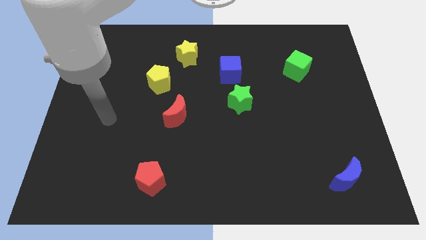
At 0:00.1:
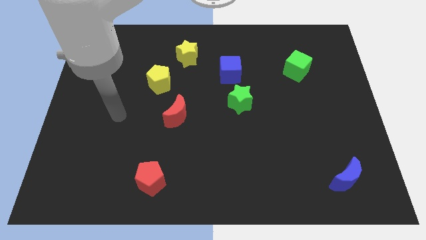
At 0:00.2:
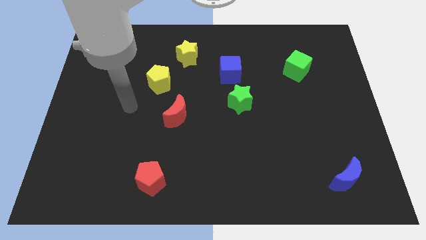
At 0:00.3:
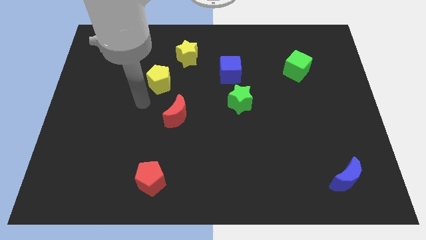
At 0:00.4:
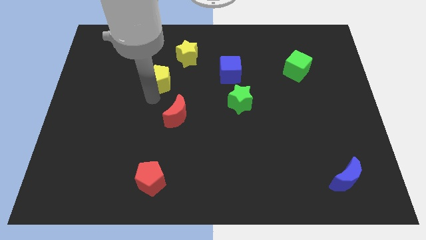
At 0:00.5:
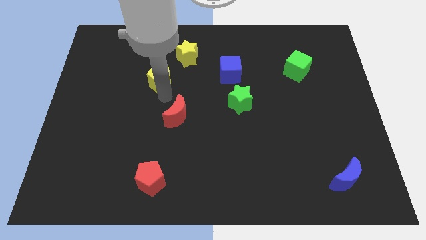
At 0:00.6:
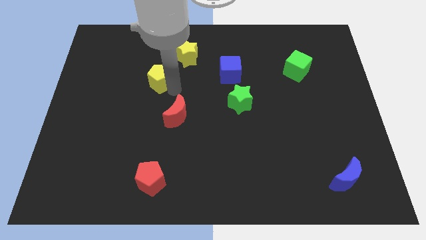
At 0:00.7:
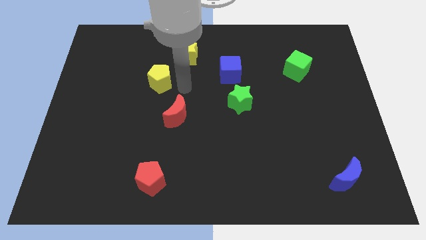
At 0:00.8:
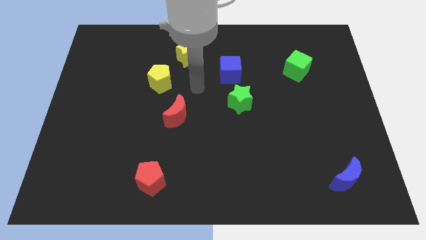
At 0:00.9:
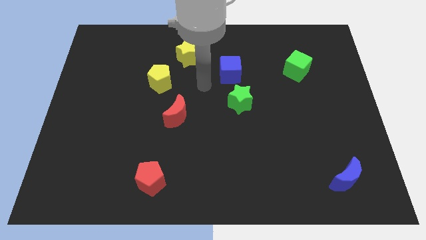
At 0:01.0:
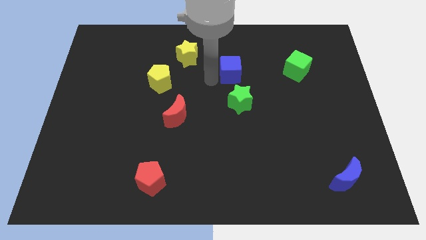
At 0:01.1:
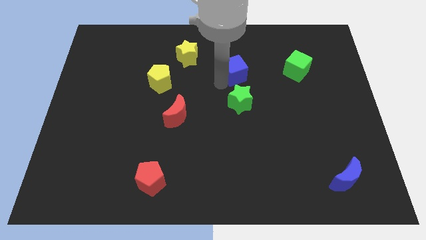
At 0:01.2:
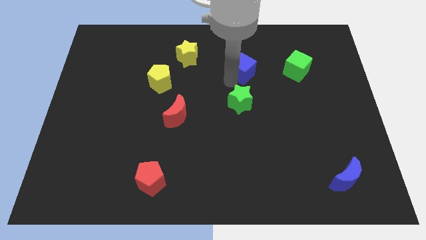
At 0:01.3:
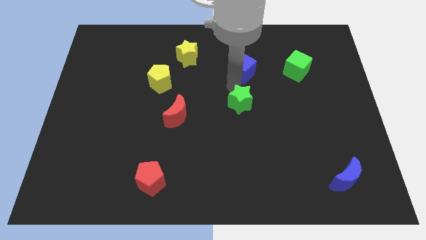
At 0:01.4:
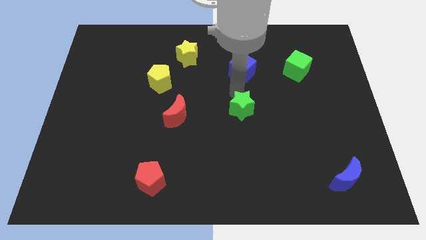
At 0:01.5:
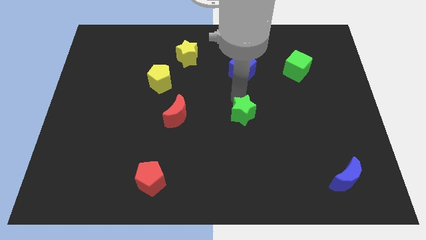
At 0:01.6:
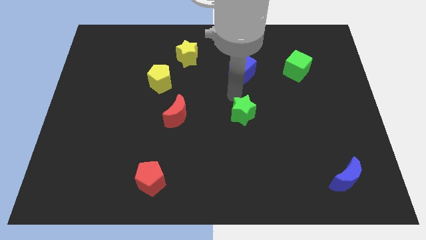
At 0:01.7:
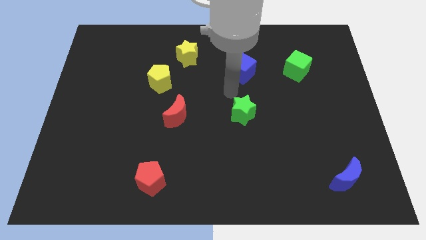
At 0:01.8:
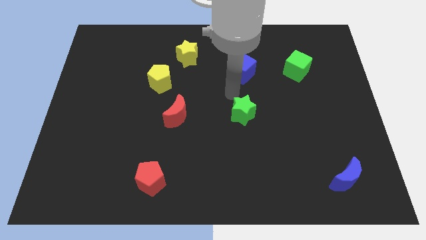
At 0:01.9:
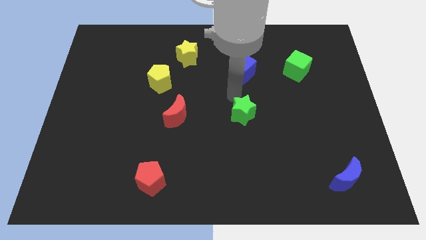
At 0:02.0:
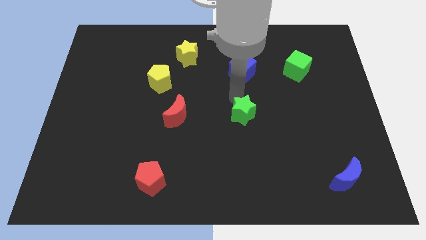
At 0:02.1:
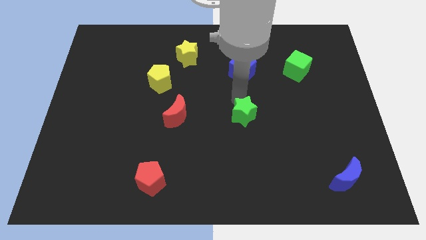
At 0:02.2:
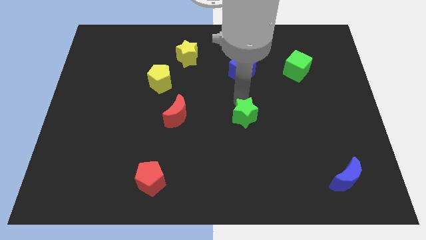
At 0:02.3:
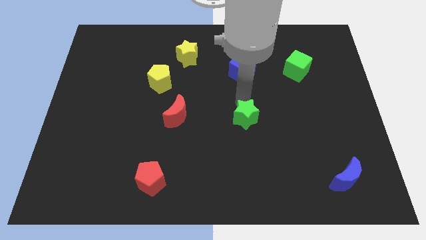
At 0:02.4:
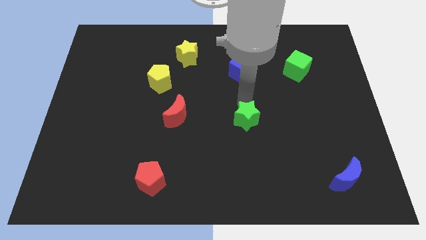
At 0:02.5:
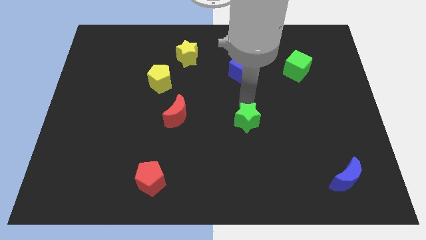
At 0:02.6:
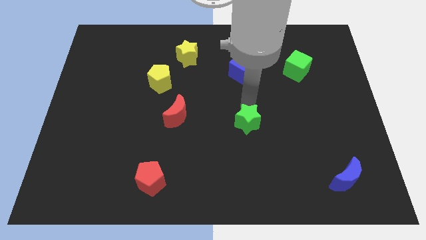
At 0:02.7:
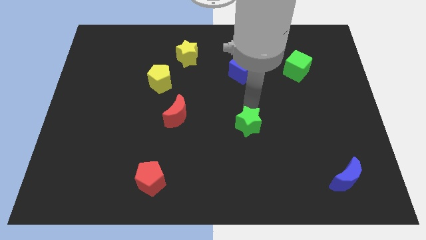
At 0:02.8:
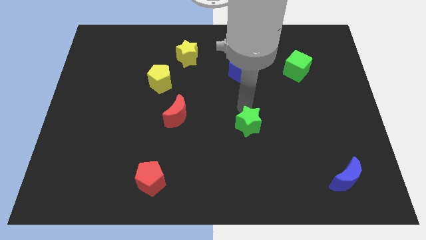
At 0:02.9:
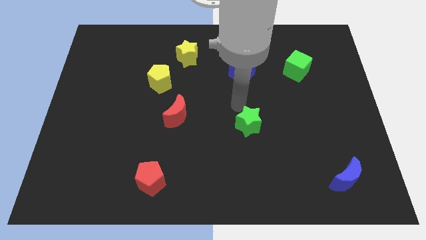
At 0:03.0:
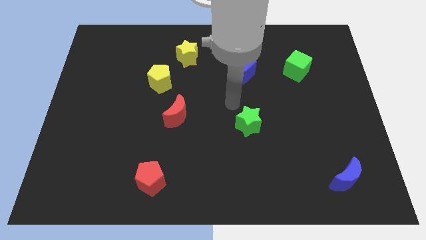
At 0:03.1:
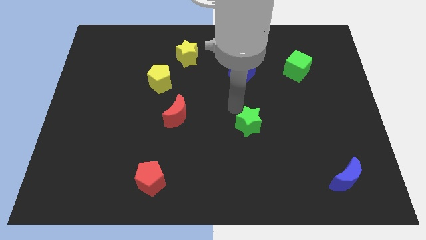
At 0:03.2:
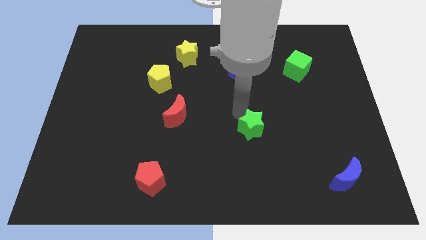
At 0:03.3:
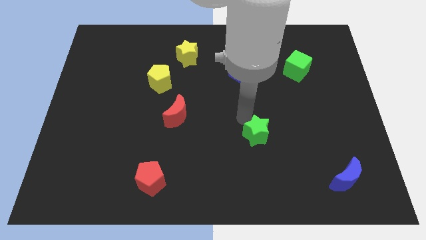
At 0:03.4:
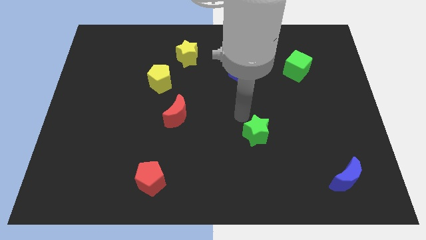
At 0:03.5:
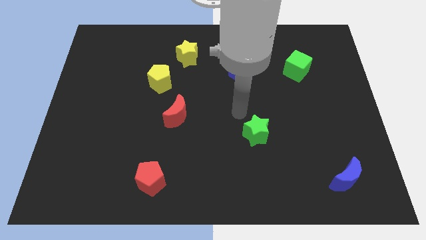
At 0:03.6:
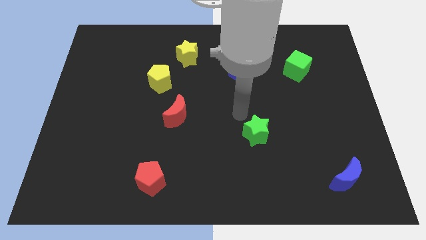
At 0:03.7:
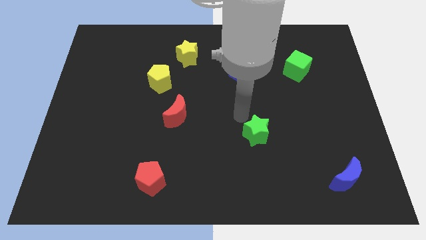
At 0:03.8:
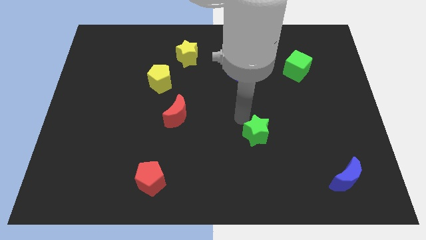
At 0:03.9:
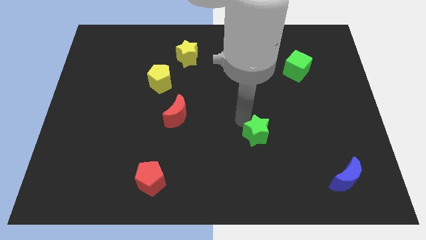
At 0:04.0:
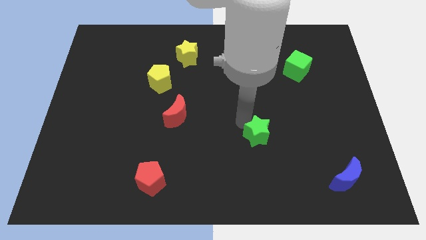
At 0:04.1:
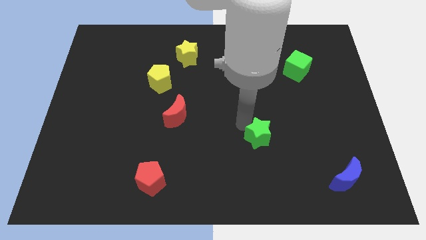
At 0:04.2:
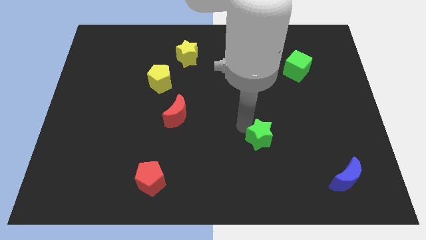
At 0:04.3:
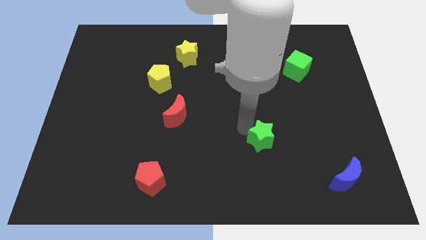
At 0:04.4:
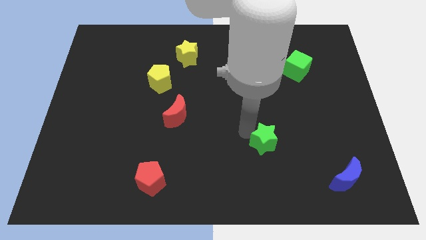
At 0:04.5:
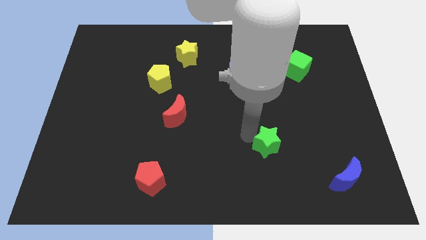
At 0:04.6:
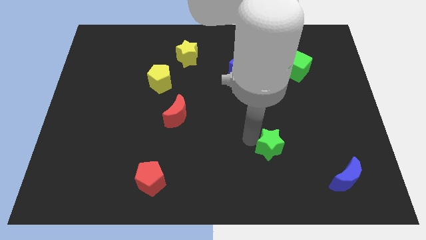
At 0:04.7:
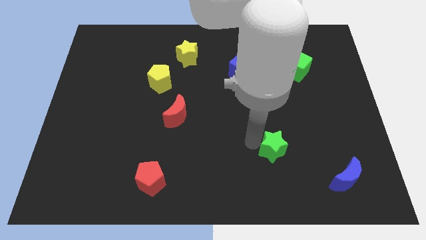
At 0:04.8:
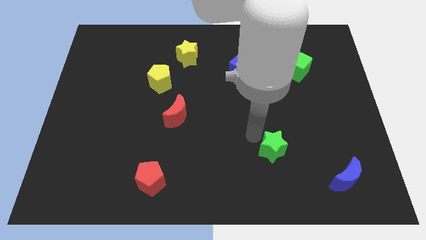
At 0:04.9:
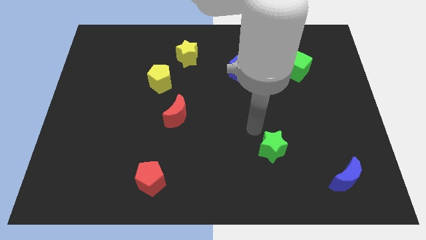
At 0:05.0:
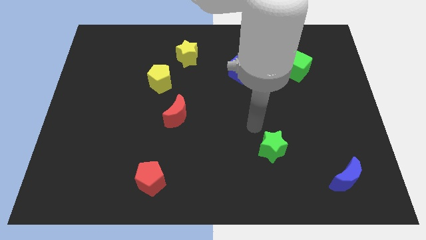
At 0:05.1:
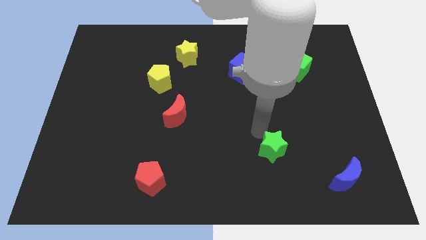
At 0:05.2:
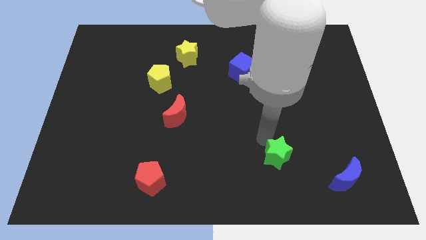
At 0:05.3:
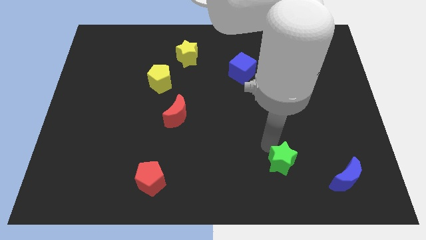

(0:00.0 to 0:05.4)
push the green star left of the blue moon

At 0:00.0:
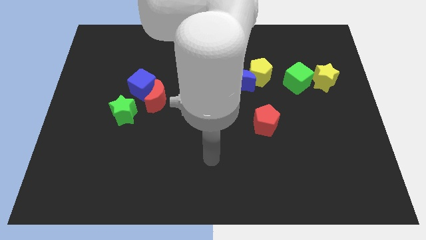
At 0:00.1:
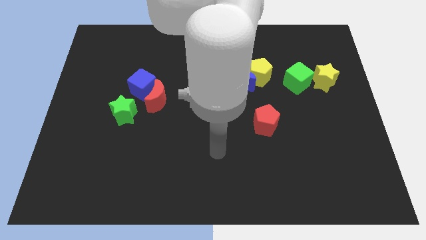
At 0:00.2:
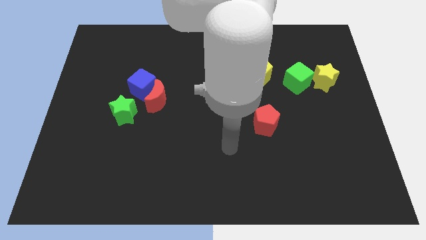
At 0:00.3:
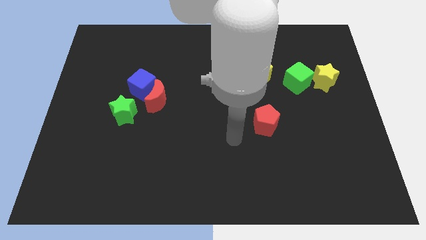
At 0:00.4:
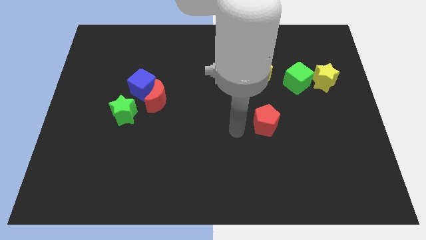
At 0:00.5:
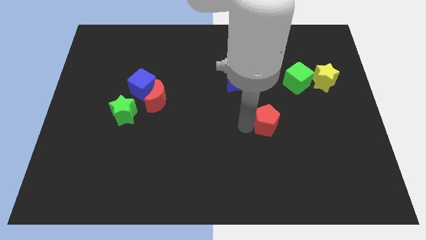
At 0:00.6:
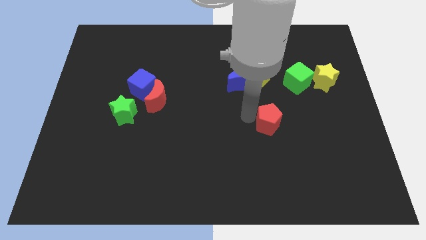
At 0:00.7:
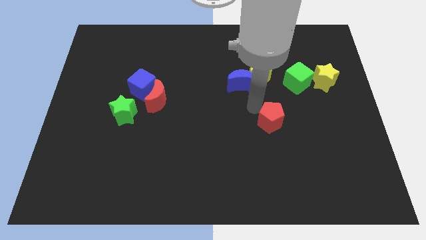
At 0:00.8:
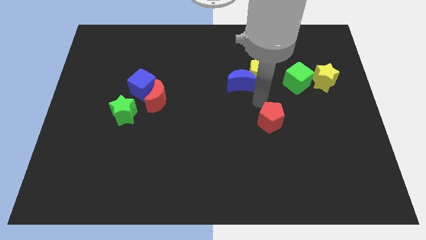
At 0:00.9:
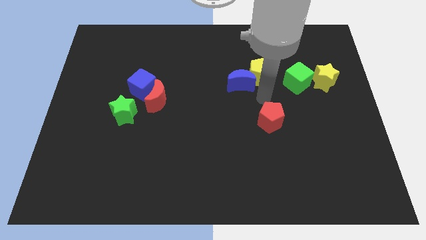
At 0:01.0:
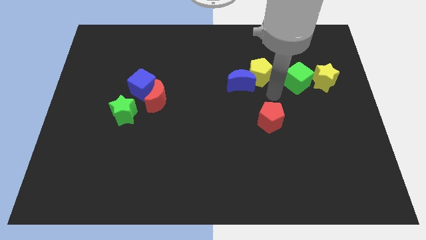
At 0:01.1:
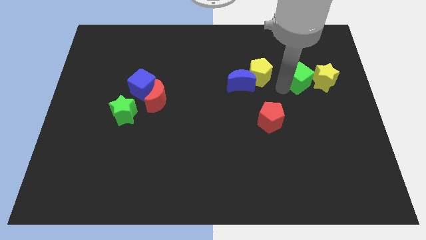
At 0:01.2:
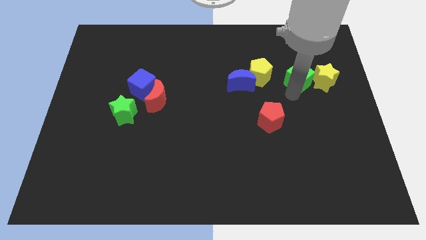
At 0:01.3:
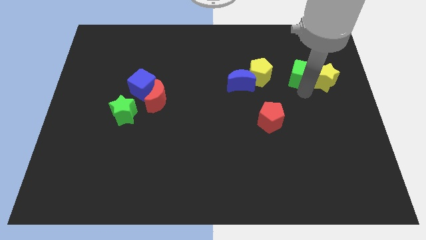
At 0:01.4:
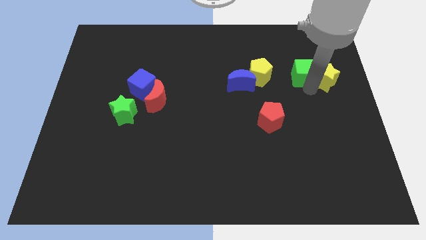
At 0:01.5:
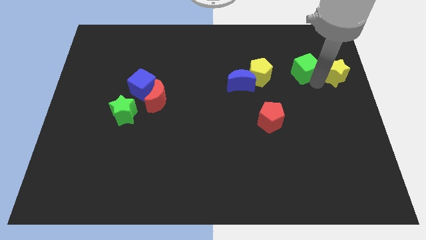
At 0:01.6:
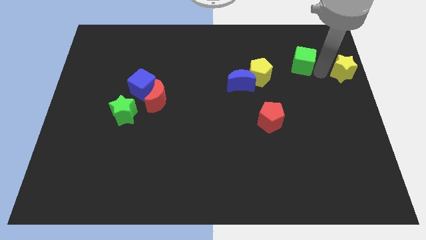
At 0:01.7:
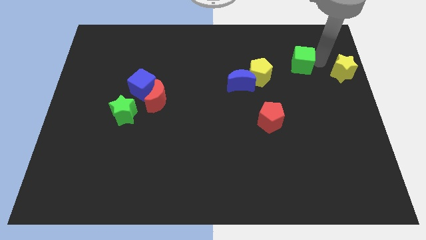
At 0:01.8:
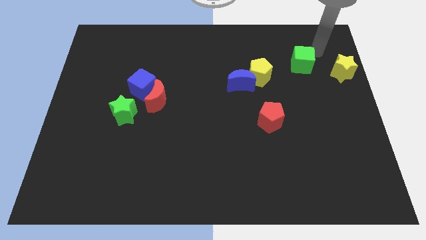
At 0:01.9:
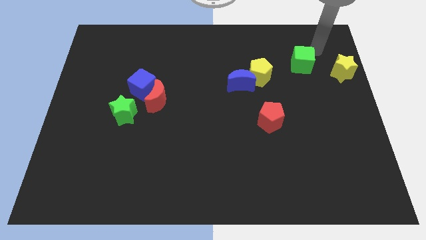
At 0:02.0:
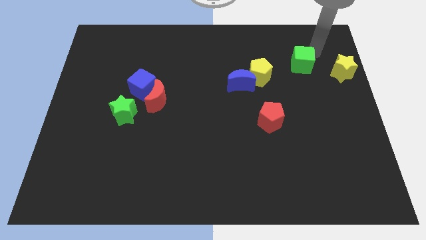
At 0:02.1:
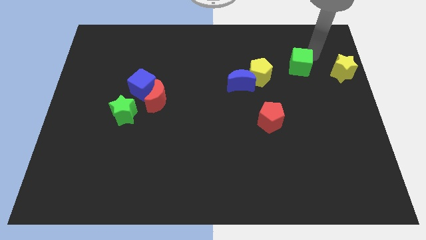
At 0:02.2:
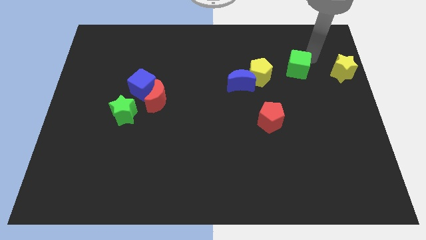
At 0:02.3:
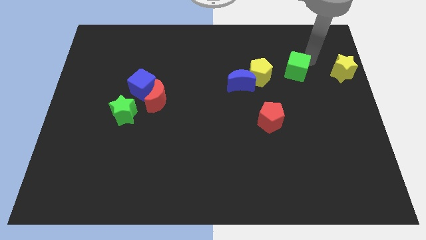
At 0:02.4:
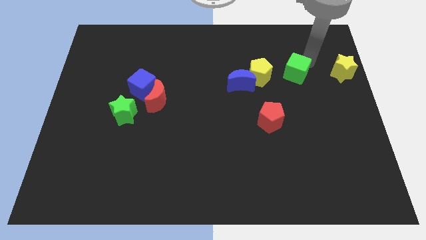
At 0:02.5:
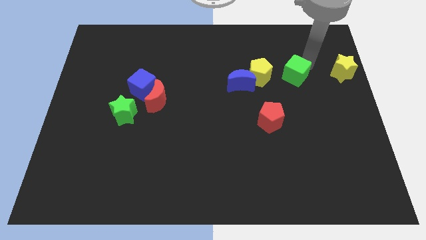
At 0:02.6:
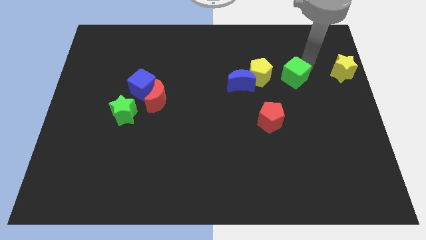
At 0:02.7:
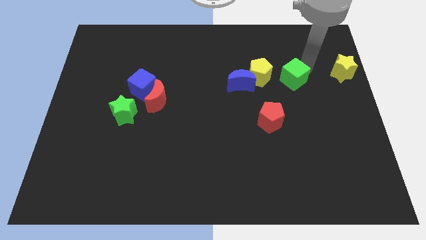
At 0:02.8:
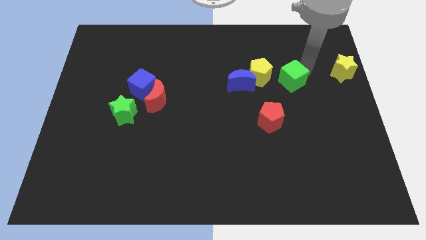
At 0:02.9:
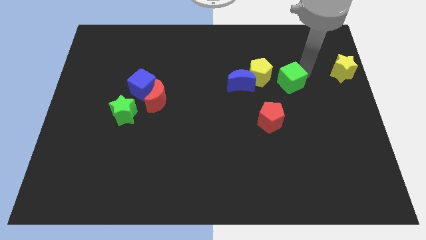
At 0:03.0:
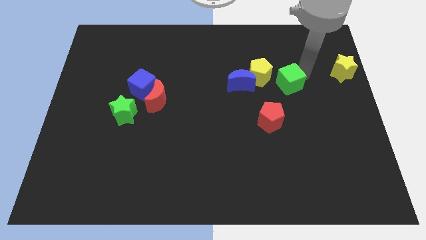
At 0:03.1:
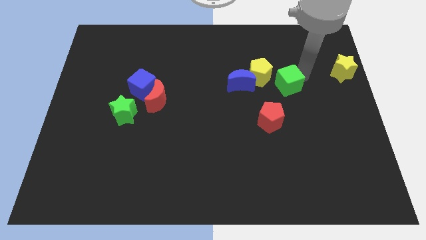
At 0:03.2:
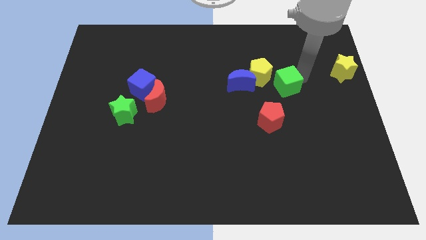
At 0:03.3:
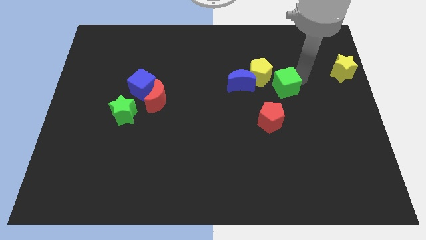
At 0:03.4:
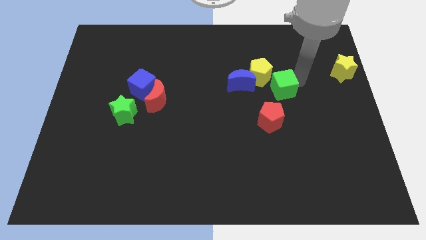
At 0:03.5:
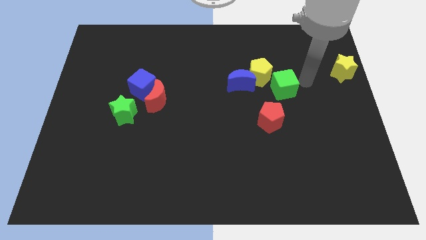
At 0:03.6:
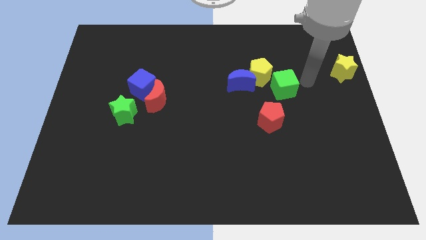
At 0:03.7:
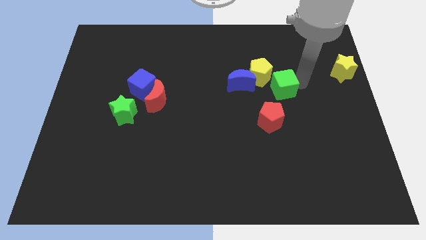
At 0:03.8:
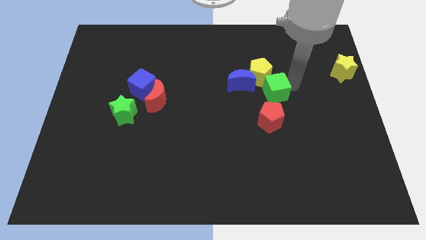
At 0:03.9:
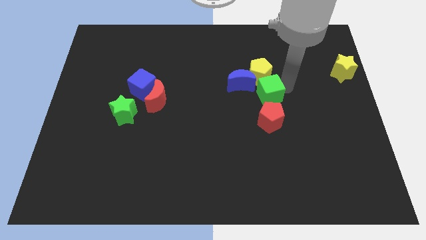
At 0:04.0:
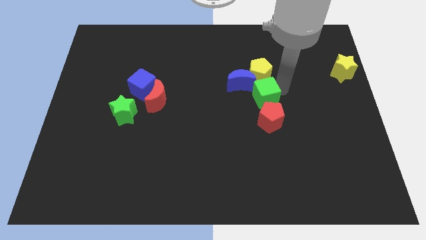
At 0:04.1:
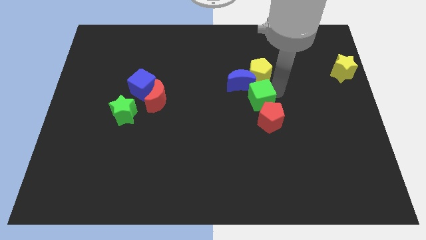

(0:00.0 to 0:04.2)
slide the green cube diagonally down and to the left of the yellow pentagon
